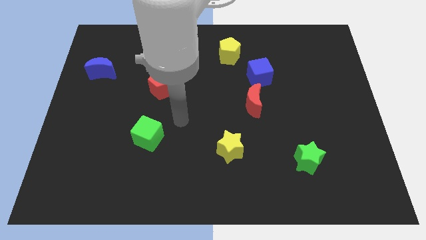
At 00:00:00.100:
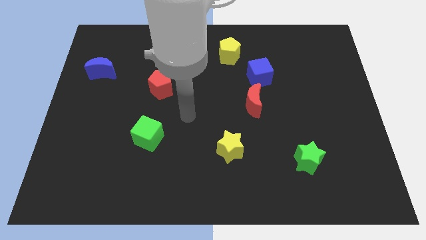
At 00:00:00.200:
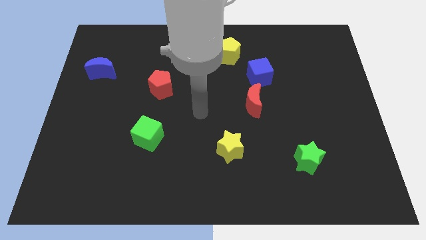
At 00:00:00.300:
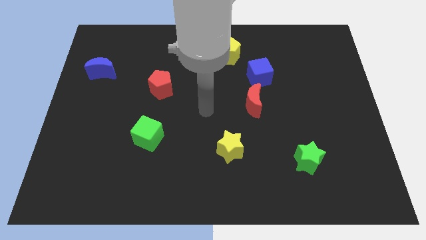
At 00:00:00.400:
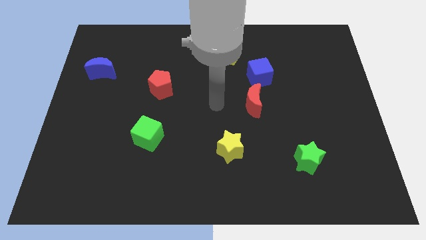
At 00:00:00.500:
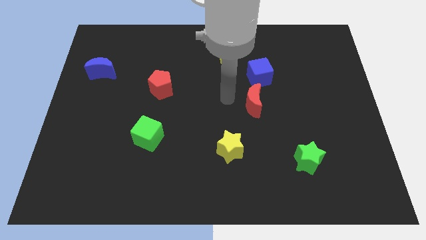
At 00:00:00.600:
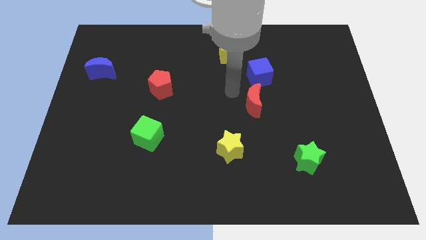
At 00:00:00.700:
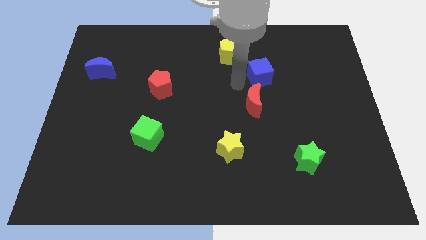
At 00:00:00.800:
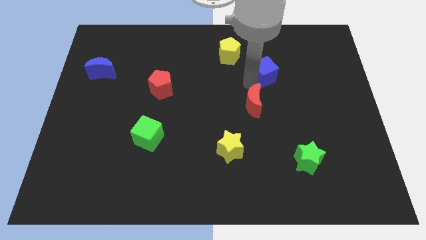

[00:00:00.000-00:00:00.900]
pull the red moon apart from the blue cube

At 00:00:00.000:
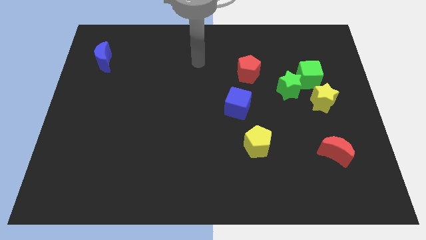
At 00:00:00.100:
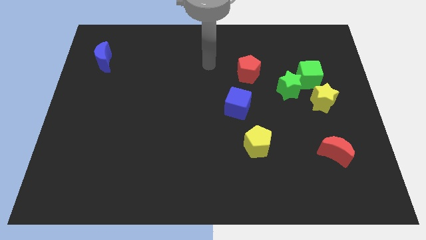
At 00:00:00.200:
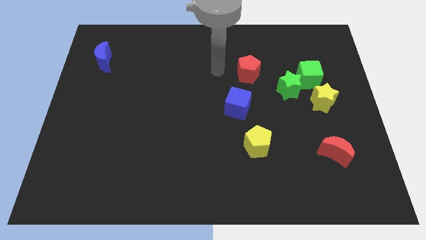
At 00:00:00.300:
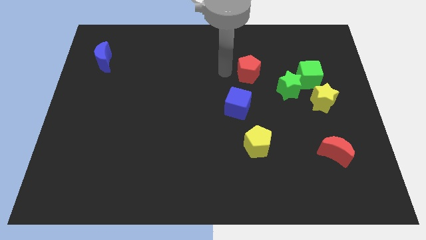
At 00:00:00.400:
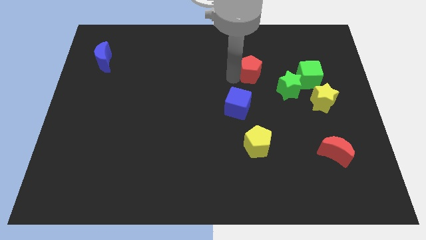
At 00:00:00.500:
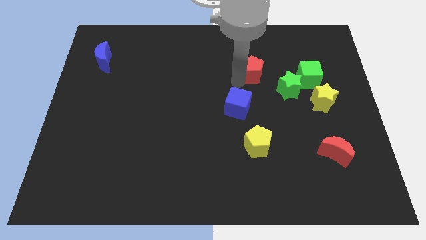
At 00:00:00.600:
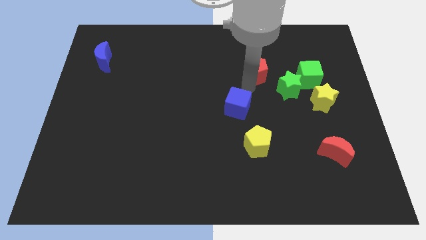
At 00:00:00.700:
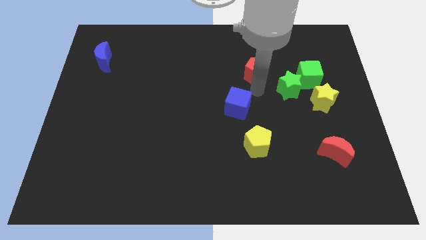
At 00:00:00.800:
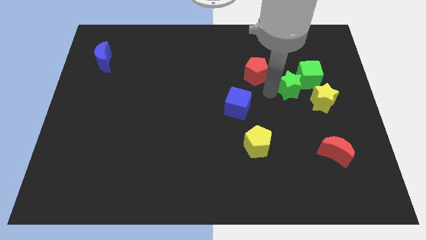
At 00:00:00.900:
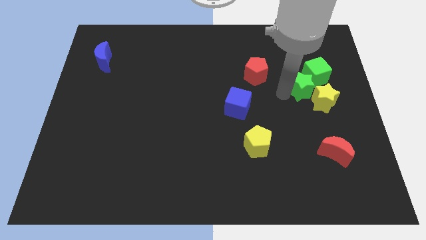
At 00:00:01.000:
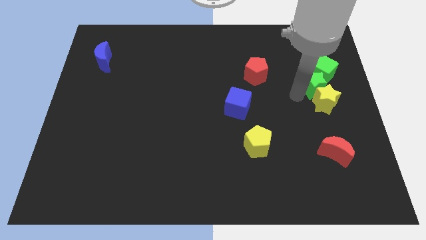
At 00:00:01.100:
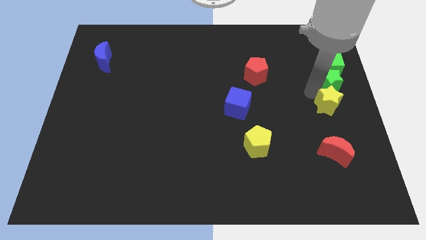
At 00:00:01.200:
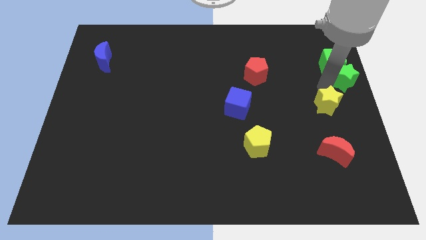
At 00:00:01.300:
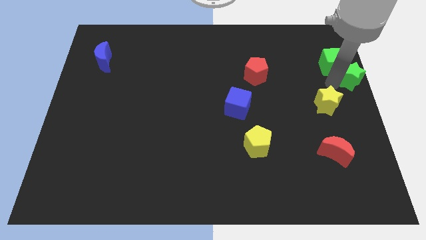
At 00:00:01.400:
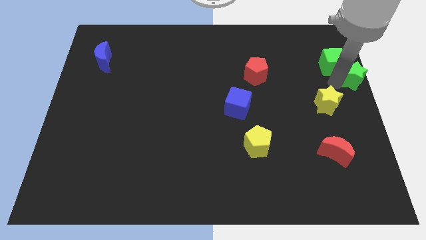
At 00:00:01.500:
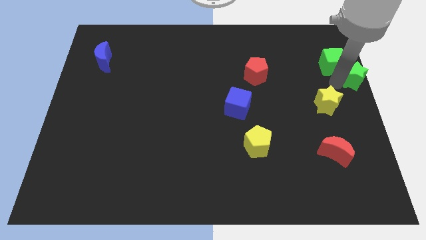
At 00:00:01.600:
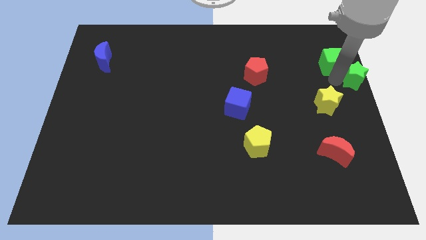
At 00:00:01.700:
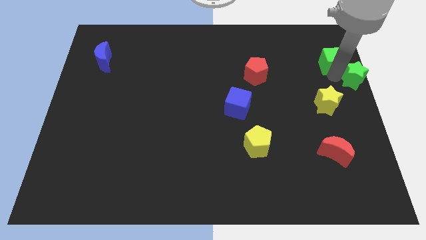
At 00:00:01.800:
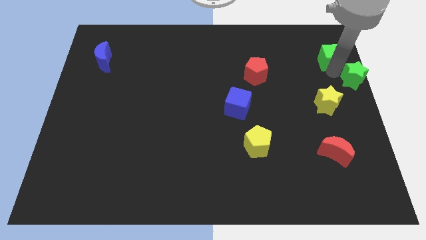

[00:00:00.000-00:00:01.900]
move the green cube away from the green star and yellow star

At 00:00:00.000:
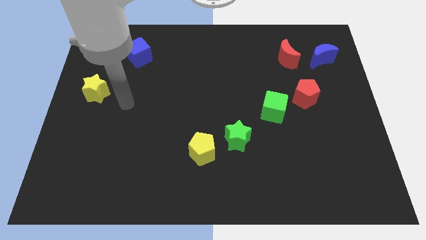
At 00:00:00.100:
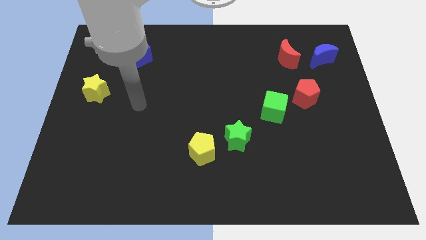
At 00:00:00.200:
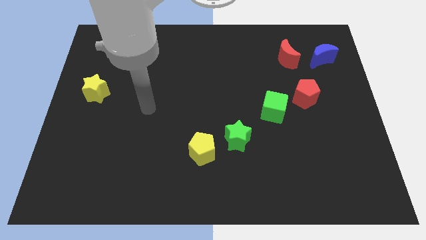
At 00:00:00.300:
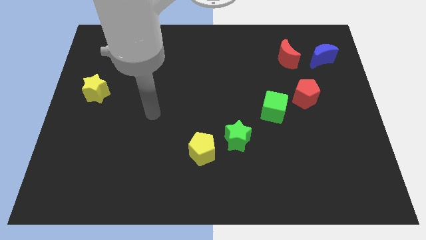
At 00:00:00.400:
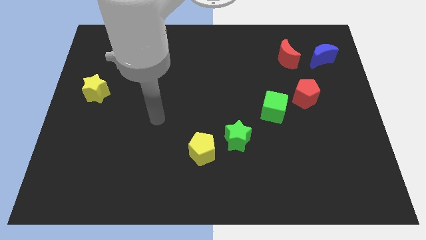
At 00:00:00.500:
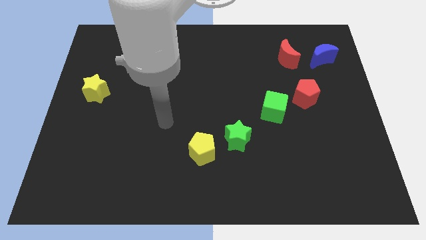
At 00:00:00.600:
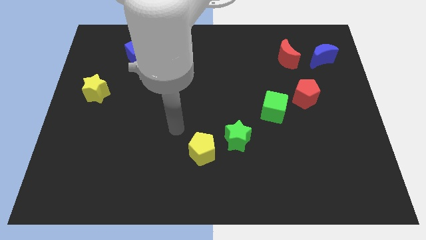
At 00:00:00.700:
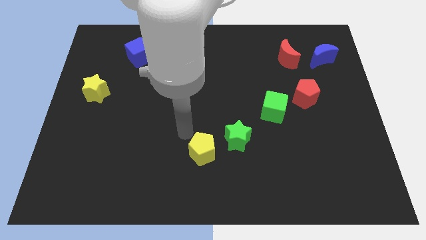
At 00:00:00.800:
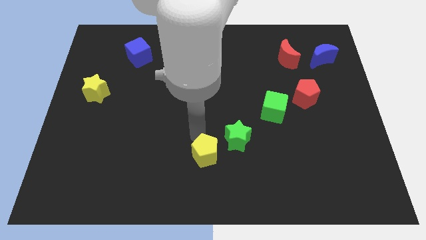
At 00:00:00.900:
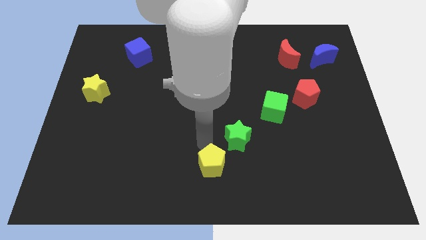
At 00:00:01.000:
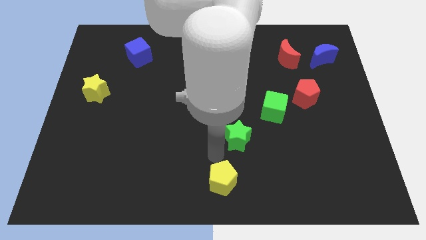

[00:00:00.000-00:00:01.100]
pull the green star apart from the yellow pentagon

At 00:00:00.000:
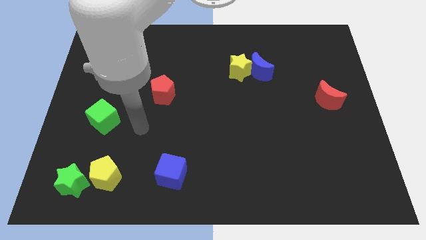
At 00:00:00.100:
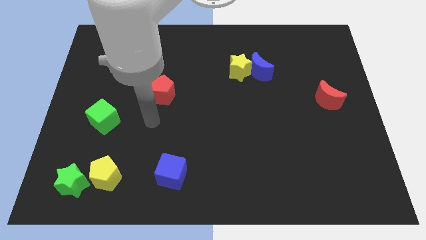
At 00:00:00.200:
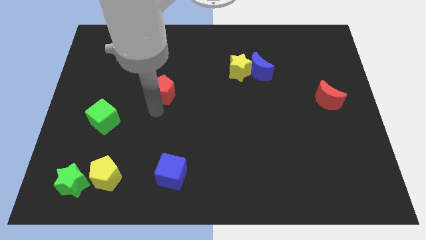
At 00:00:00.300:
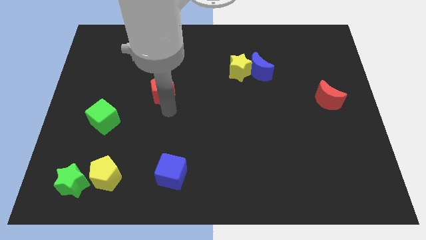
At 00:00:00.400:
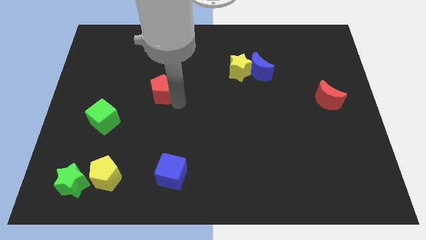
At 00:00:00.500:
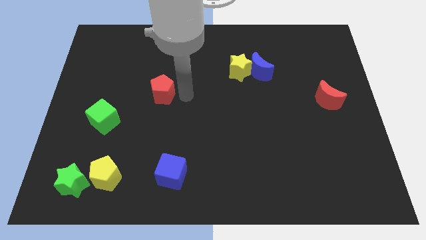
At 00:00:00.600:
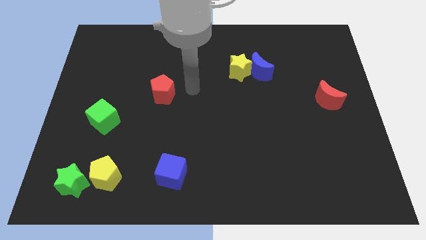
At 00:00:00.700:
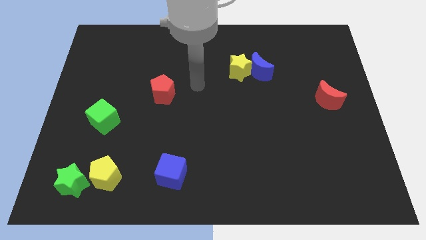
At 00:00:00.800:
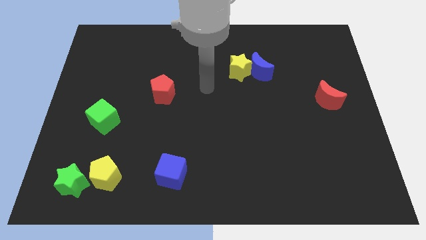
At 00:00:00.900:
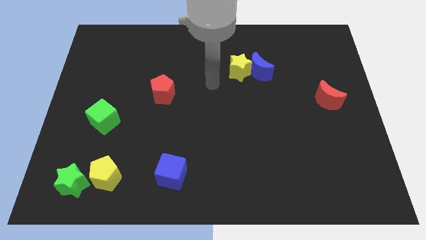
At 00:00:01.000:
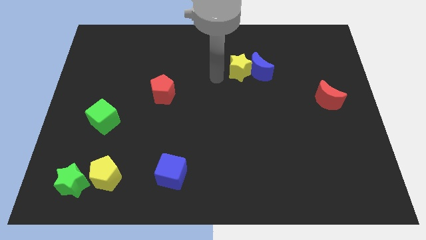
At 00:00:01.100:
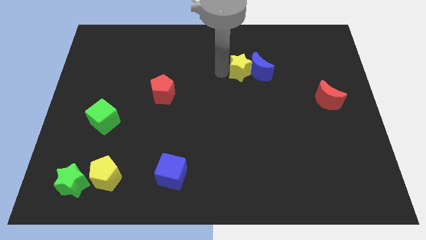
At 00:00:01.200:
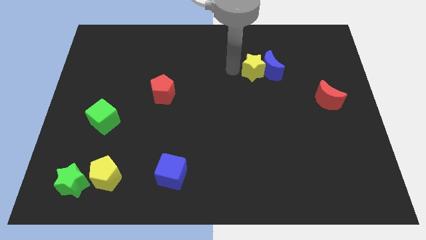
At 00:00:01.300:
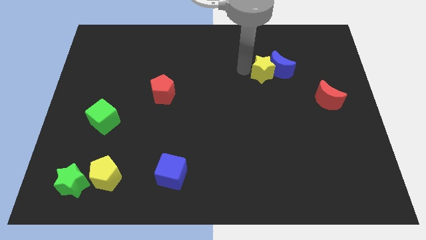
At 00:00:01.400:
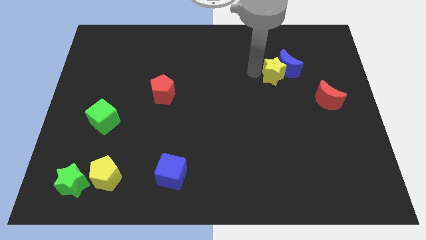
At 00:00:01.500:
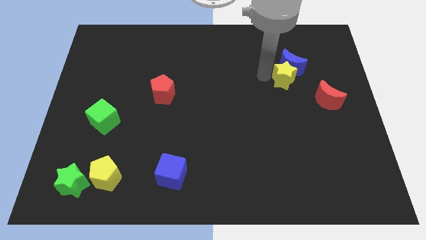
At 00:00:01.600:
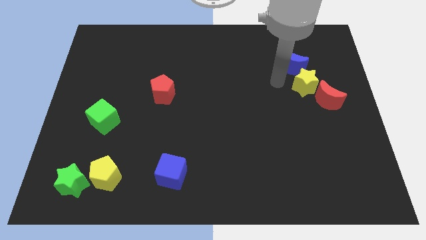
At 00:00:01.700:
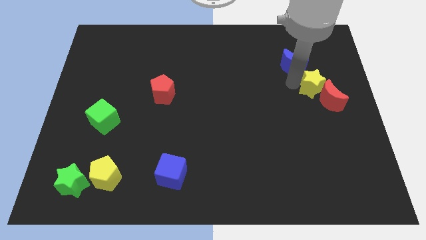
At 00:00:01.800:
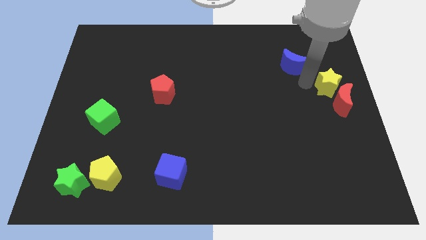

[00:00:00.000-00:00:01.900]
move the blue moon away from the yellow star

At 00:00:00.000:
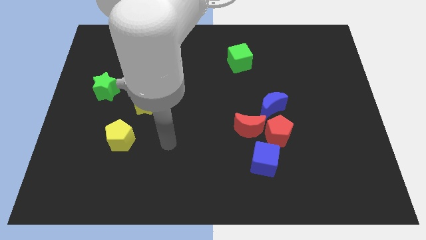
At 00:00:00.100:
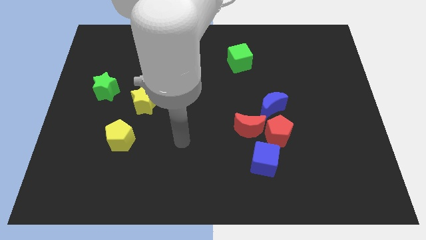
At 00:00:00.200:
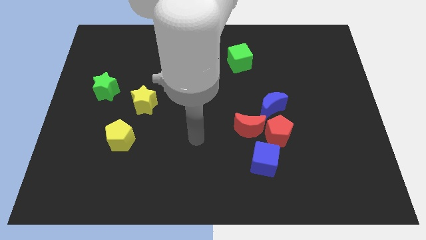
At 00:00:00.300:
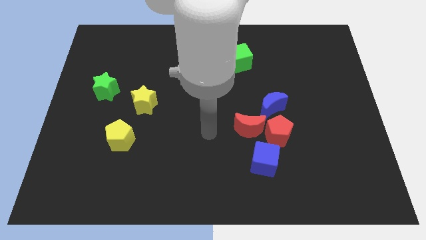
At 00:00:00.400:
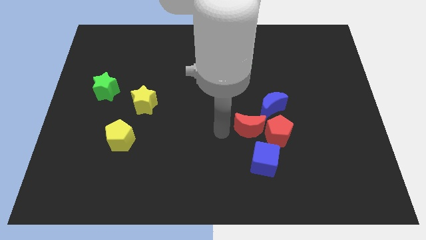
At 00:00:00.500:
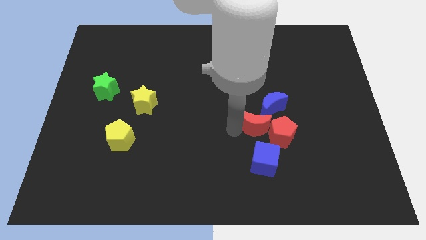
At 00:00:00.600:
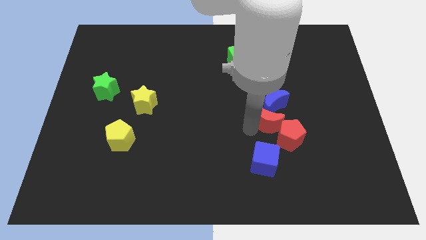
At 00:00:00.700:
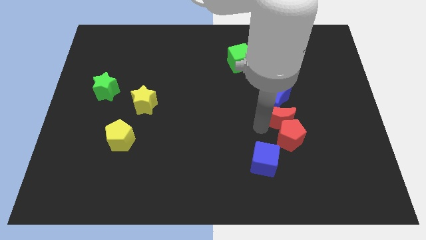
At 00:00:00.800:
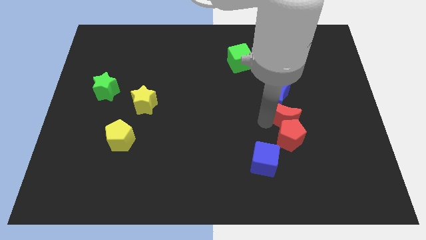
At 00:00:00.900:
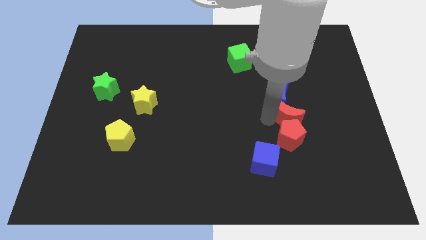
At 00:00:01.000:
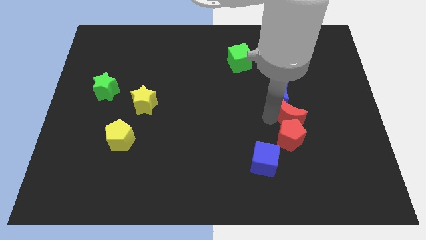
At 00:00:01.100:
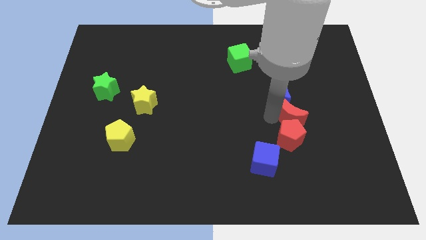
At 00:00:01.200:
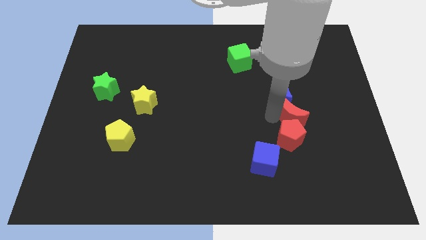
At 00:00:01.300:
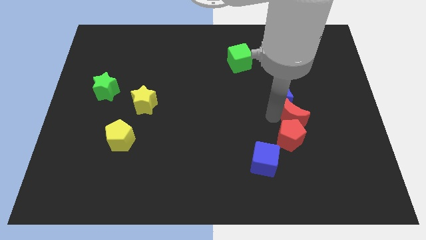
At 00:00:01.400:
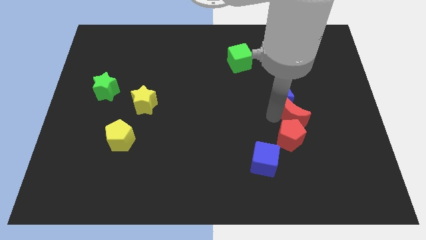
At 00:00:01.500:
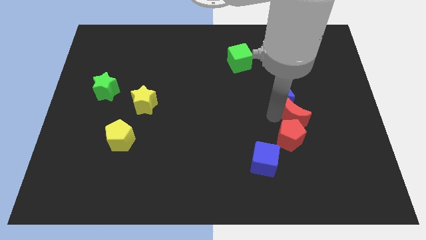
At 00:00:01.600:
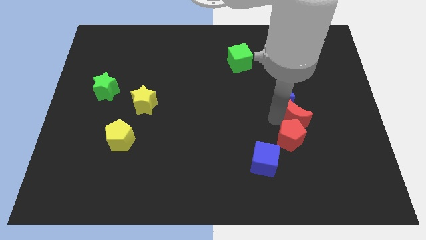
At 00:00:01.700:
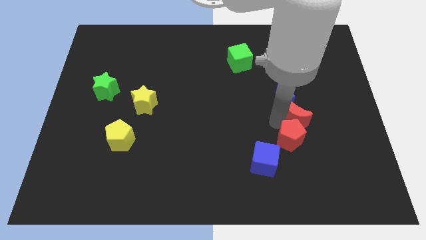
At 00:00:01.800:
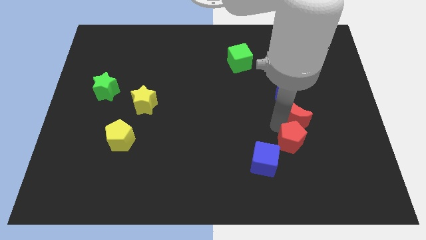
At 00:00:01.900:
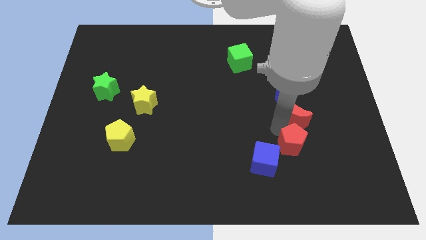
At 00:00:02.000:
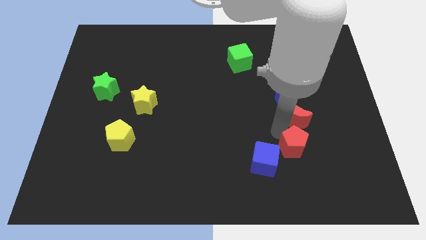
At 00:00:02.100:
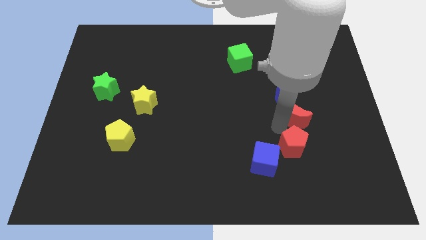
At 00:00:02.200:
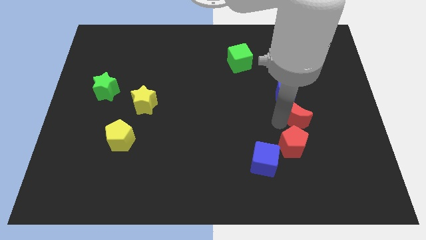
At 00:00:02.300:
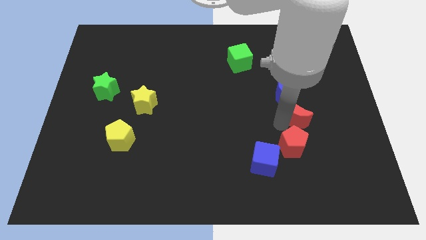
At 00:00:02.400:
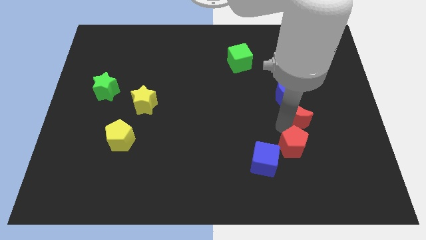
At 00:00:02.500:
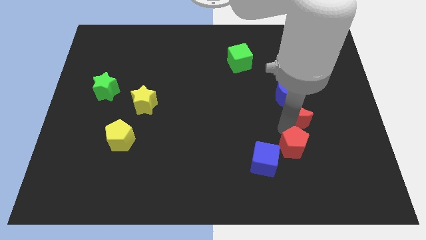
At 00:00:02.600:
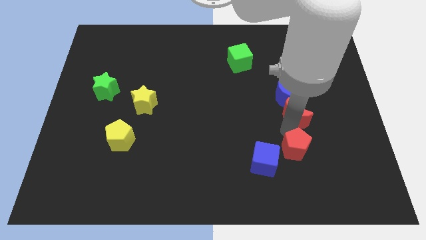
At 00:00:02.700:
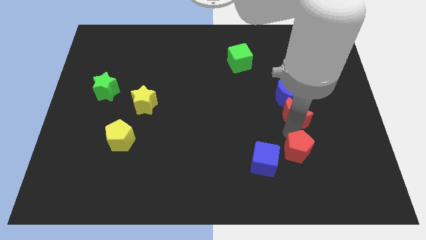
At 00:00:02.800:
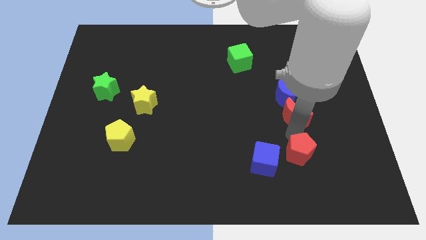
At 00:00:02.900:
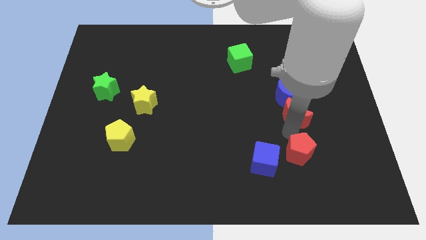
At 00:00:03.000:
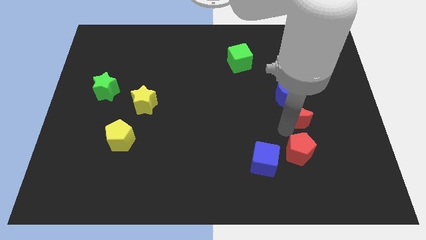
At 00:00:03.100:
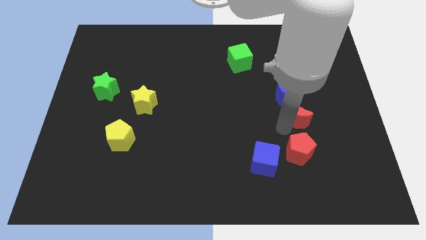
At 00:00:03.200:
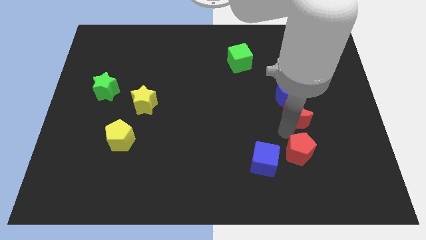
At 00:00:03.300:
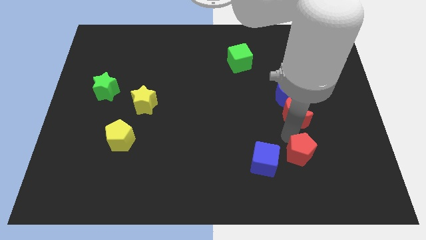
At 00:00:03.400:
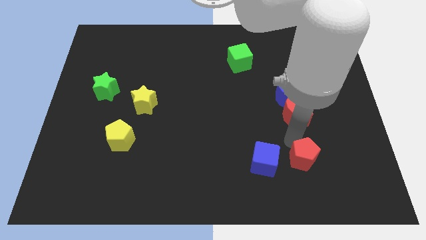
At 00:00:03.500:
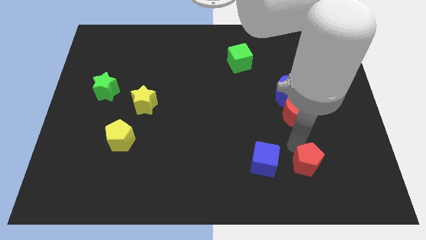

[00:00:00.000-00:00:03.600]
separate the red pentagon from the clump
